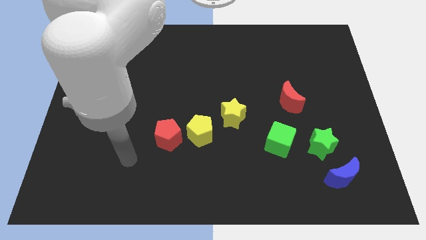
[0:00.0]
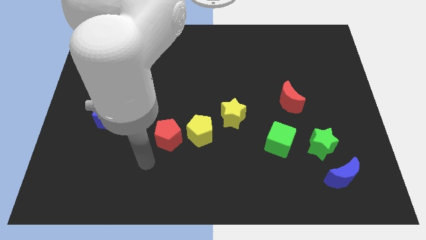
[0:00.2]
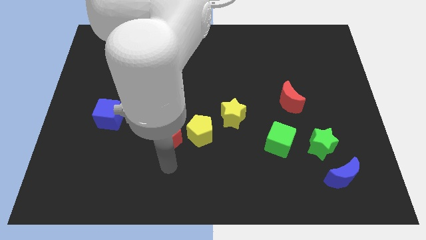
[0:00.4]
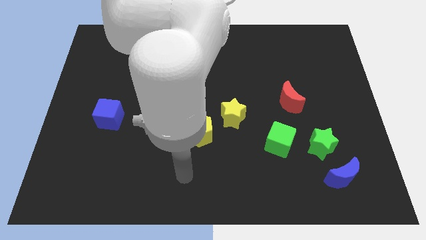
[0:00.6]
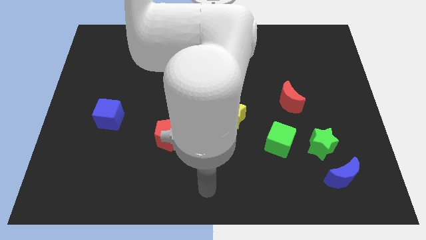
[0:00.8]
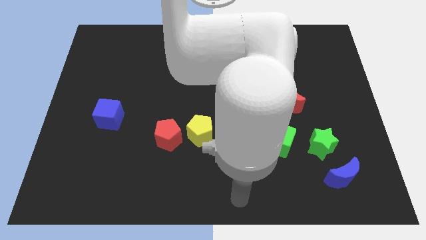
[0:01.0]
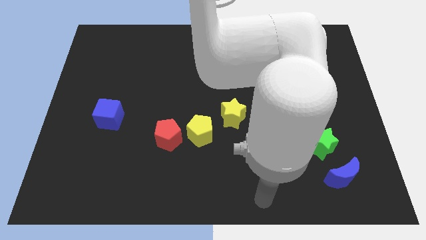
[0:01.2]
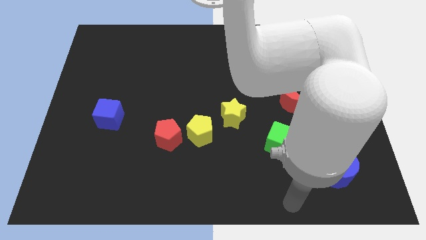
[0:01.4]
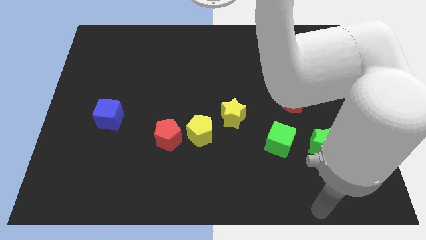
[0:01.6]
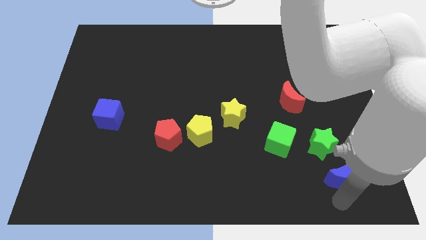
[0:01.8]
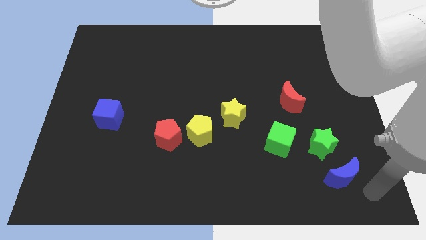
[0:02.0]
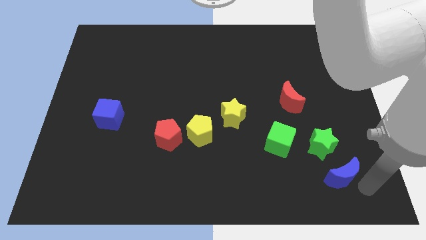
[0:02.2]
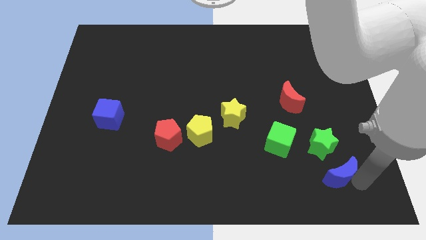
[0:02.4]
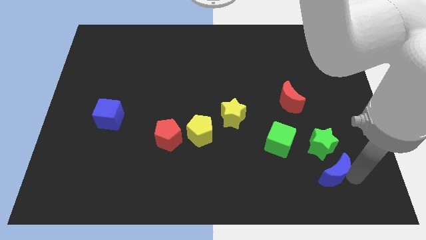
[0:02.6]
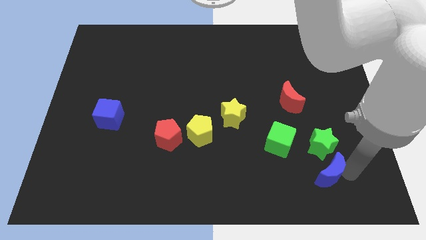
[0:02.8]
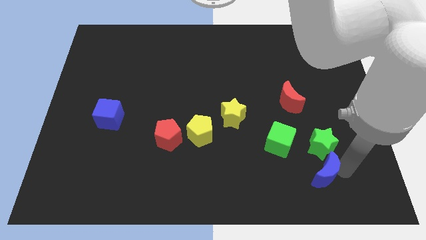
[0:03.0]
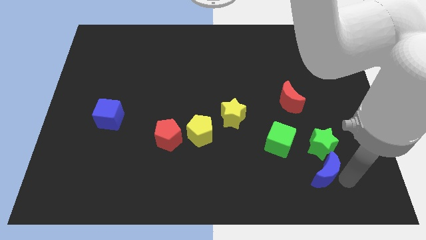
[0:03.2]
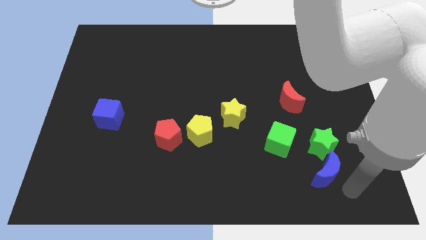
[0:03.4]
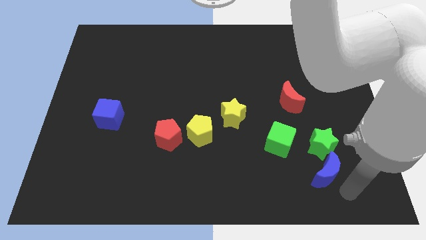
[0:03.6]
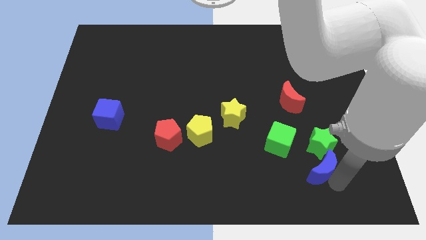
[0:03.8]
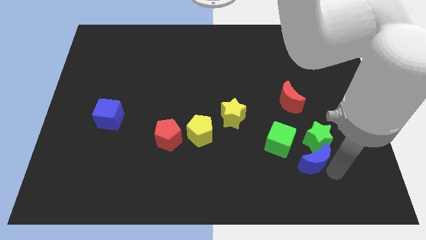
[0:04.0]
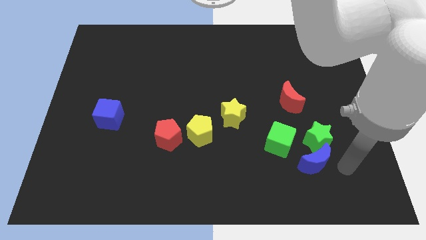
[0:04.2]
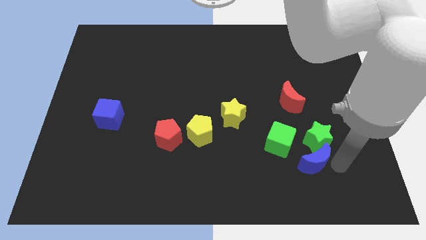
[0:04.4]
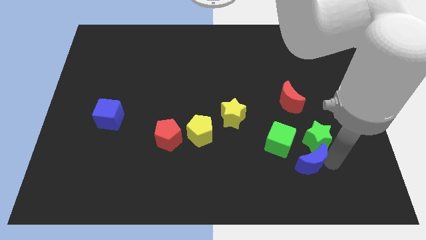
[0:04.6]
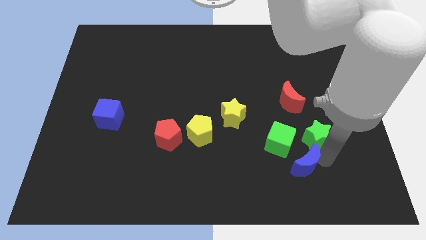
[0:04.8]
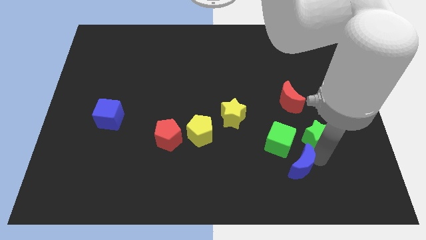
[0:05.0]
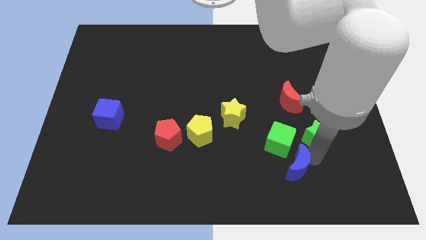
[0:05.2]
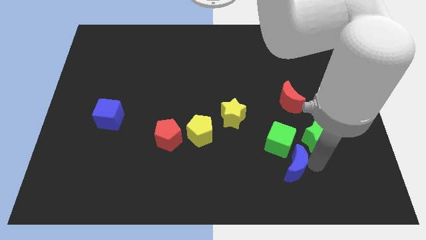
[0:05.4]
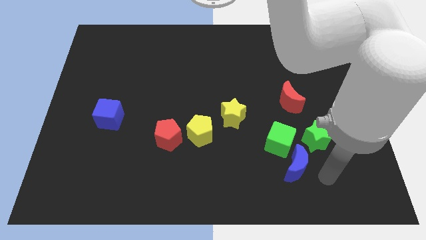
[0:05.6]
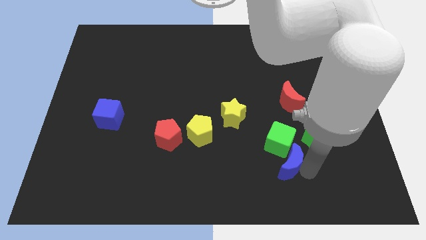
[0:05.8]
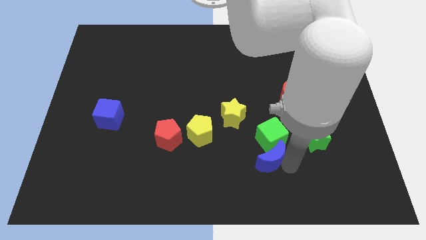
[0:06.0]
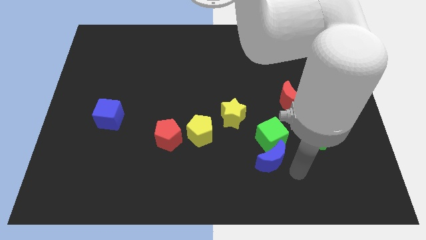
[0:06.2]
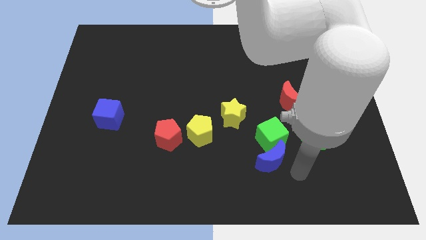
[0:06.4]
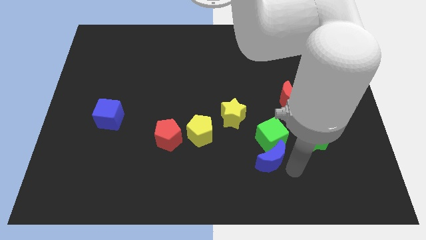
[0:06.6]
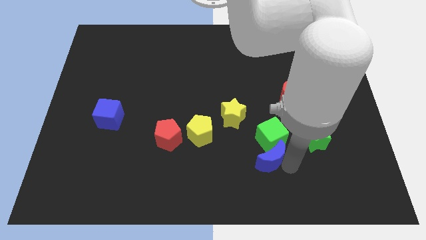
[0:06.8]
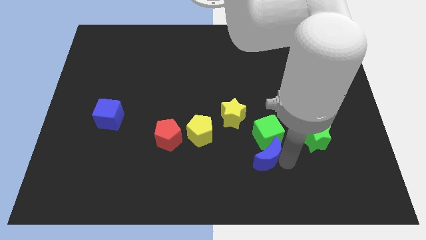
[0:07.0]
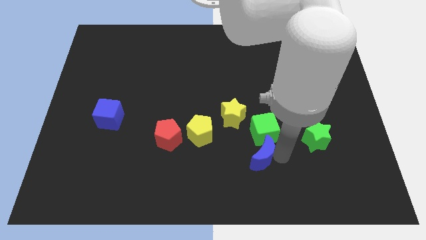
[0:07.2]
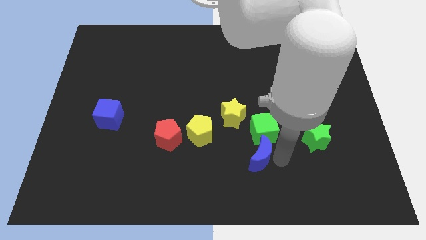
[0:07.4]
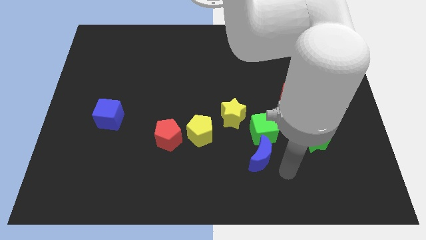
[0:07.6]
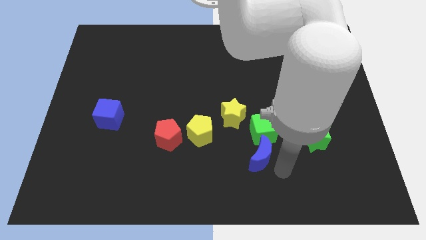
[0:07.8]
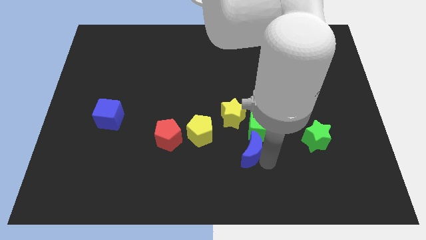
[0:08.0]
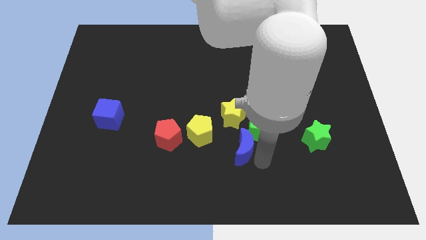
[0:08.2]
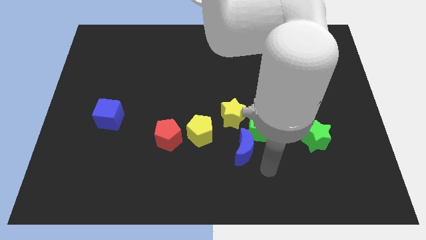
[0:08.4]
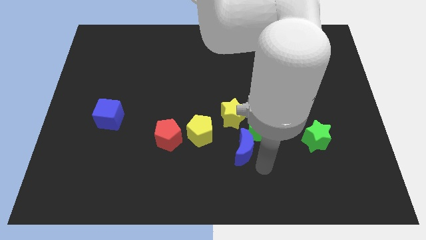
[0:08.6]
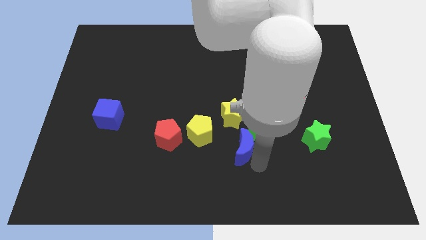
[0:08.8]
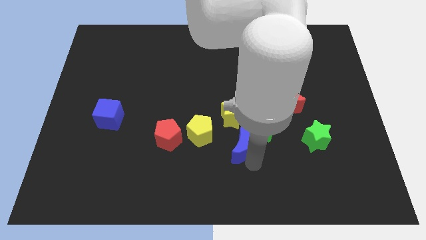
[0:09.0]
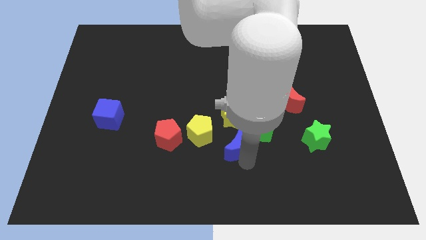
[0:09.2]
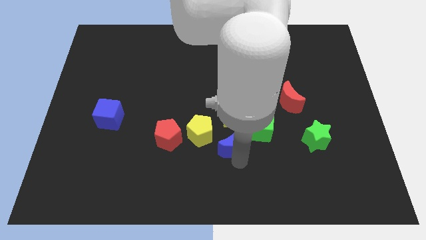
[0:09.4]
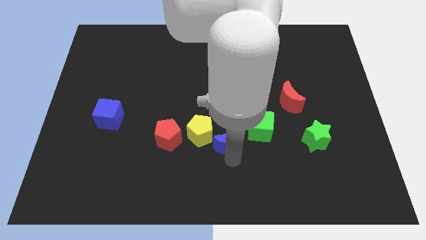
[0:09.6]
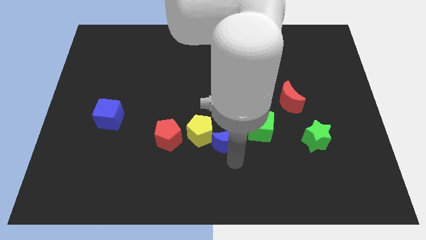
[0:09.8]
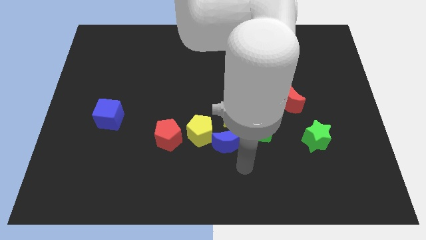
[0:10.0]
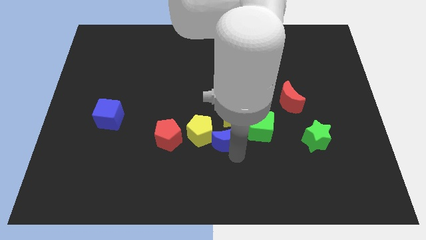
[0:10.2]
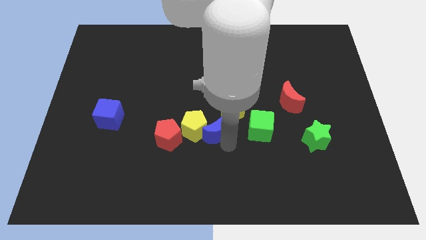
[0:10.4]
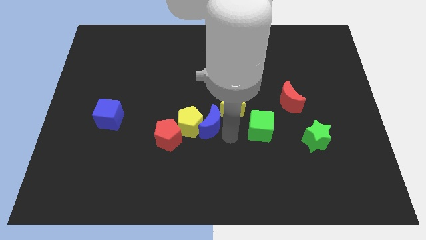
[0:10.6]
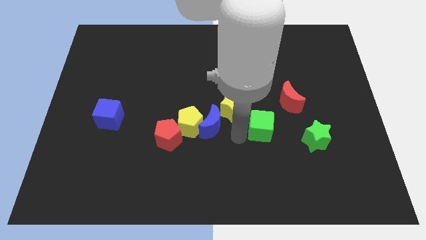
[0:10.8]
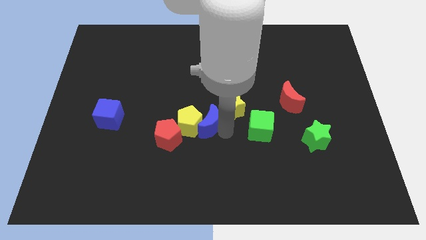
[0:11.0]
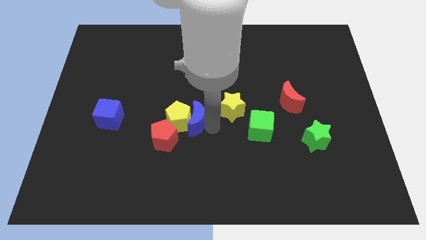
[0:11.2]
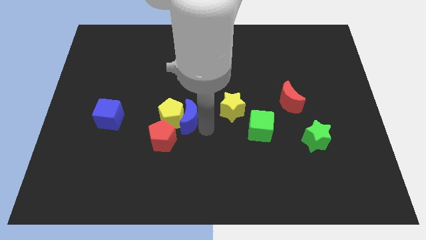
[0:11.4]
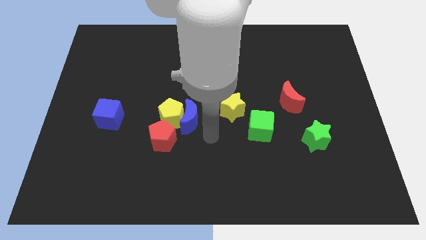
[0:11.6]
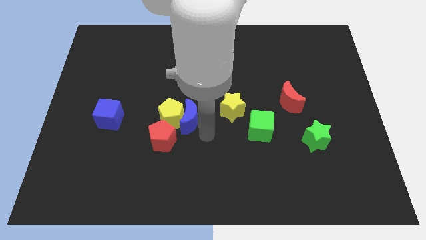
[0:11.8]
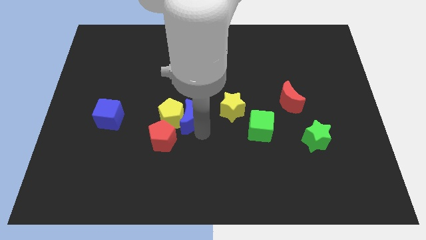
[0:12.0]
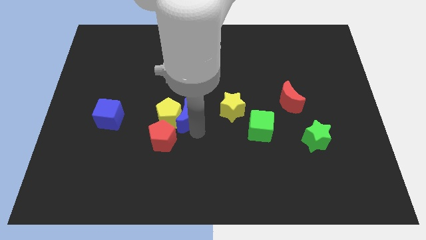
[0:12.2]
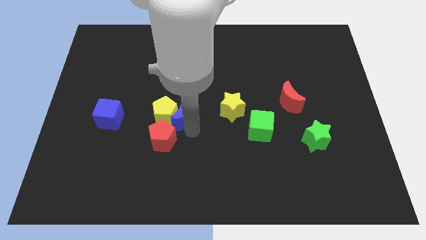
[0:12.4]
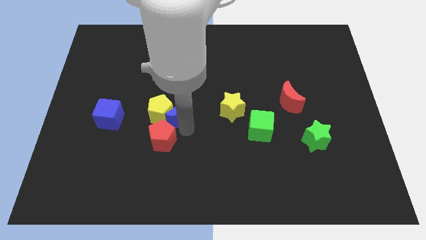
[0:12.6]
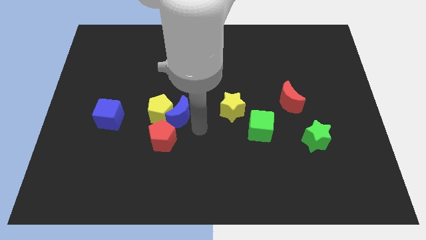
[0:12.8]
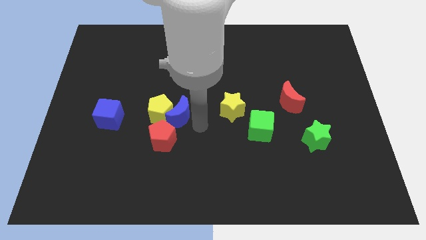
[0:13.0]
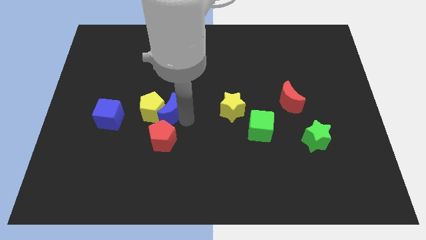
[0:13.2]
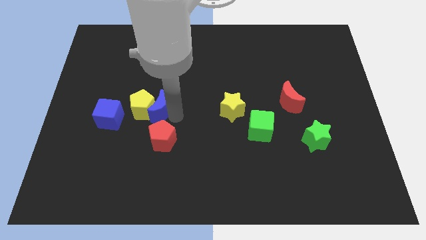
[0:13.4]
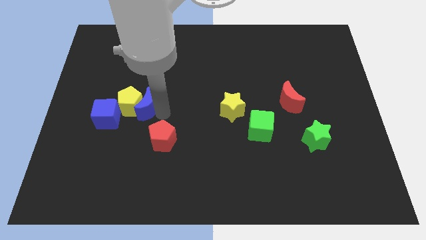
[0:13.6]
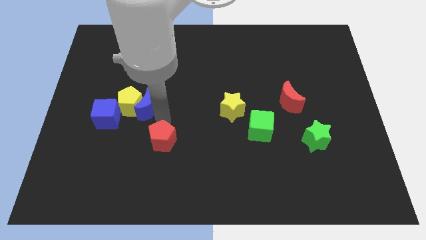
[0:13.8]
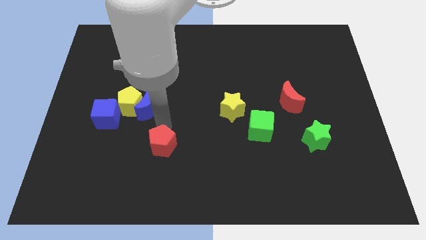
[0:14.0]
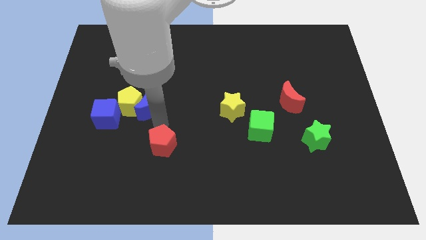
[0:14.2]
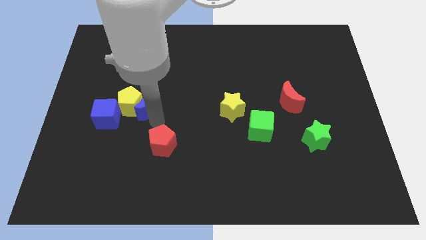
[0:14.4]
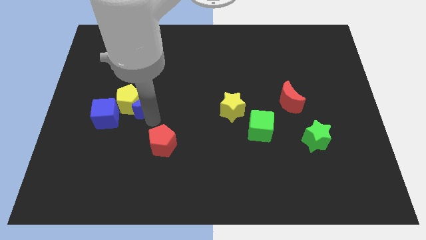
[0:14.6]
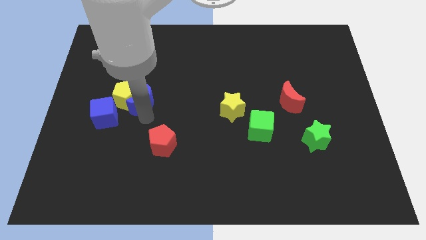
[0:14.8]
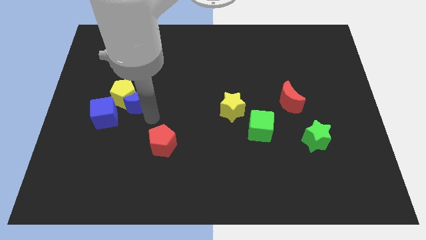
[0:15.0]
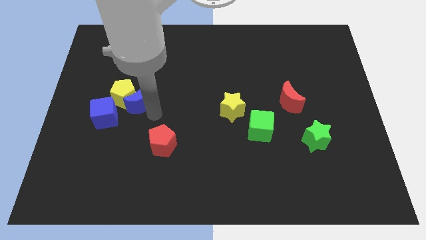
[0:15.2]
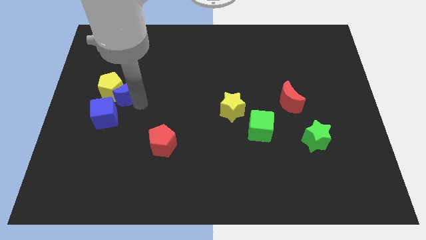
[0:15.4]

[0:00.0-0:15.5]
put the blue moon to the top side of the blue cube
